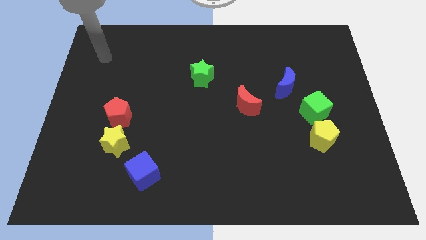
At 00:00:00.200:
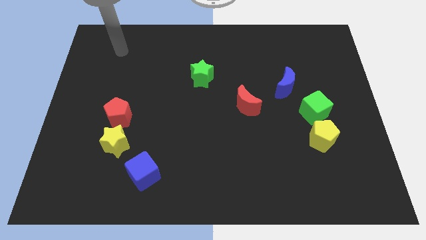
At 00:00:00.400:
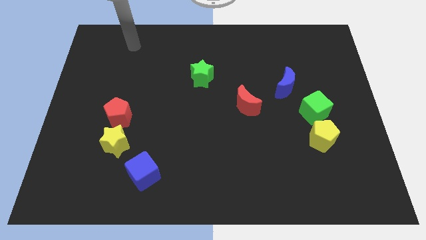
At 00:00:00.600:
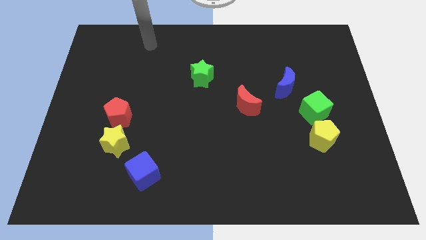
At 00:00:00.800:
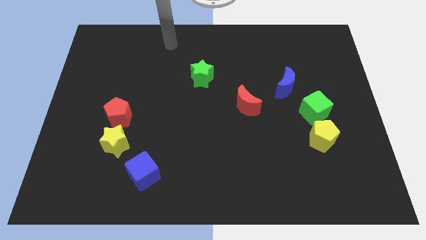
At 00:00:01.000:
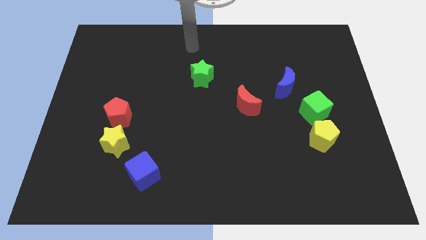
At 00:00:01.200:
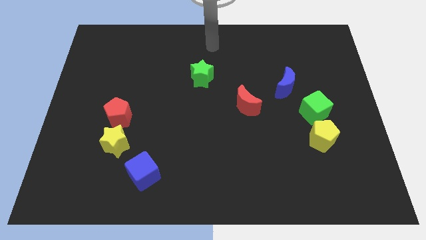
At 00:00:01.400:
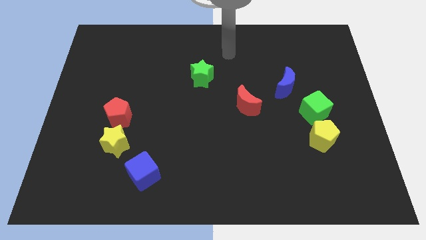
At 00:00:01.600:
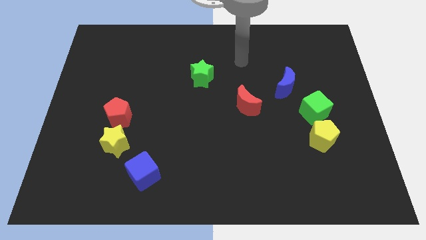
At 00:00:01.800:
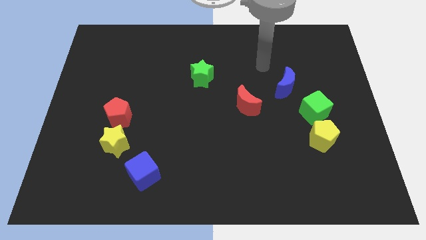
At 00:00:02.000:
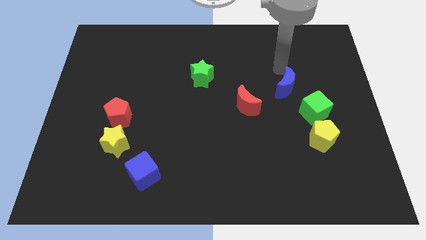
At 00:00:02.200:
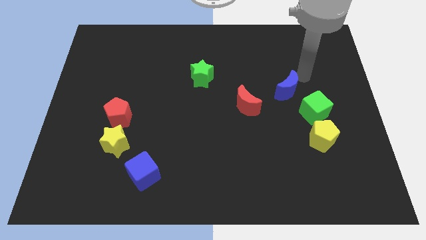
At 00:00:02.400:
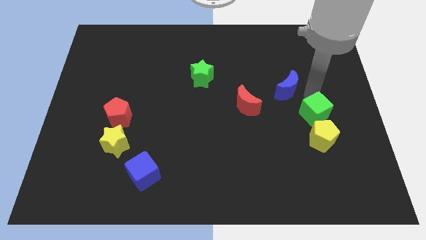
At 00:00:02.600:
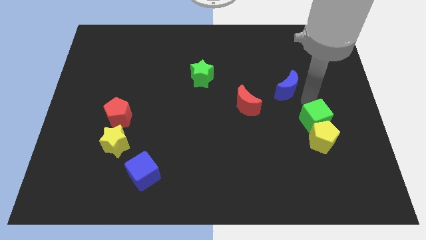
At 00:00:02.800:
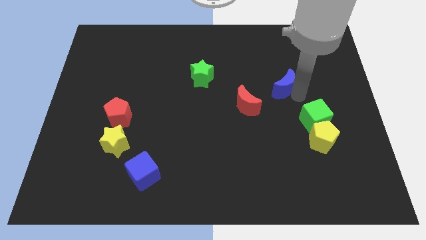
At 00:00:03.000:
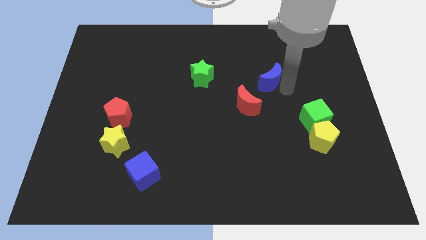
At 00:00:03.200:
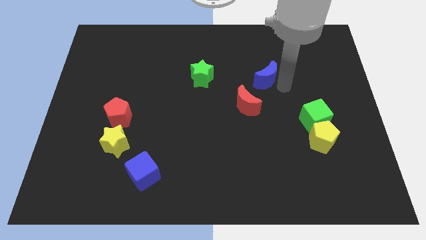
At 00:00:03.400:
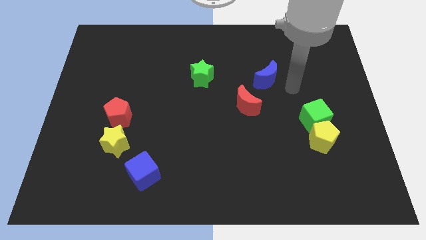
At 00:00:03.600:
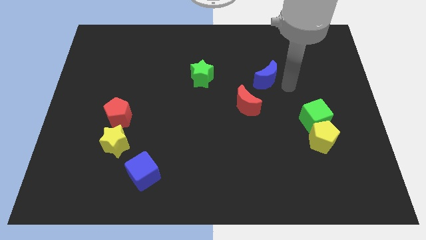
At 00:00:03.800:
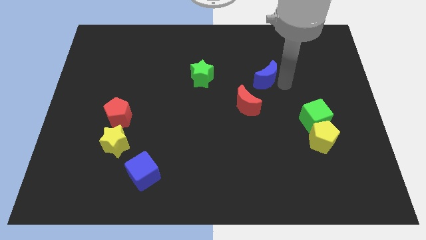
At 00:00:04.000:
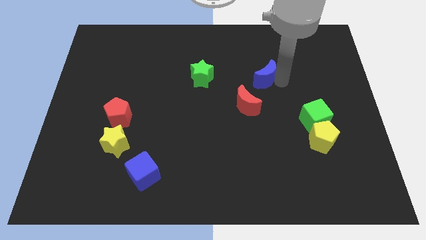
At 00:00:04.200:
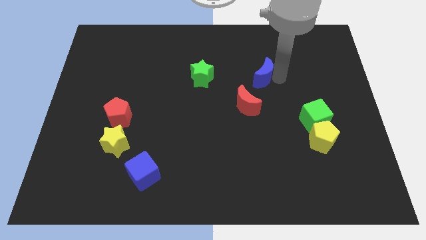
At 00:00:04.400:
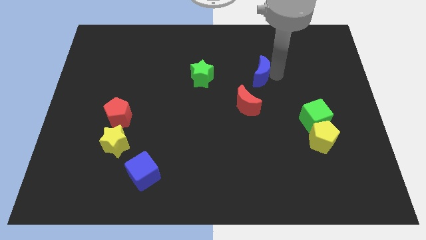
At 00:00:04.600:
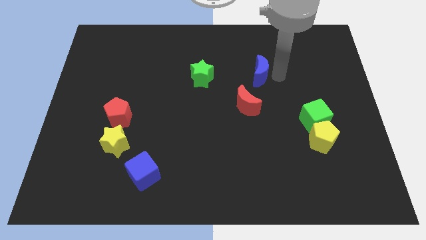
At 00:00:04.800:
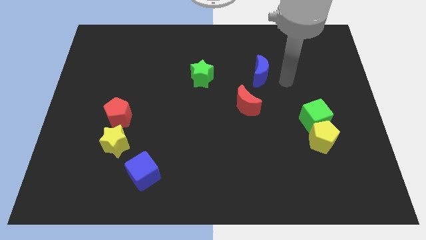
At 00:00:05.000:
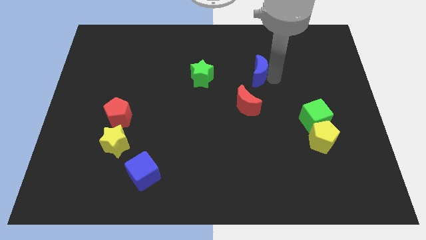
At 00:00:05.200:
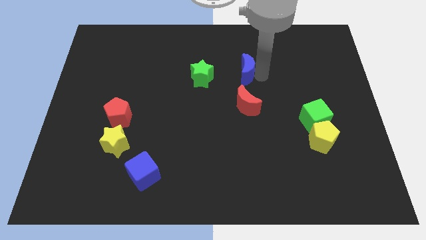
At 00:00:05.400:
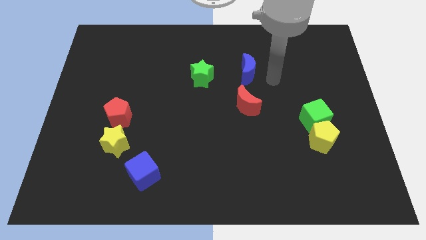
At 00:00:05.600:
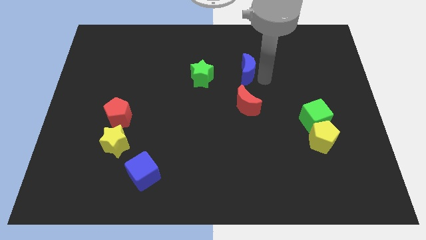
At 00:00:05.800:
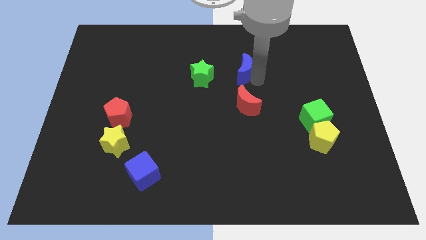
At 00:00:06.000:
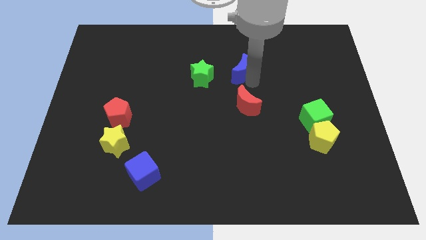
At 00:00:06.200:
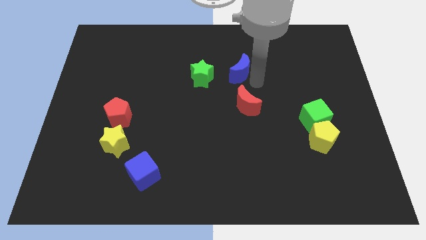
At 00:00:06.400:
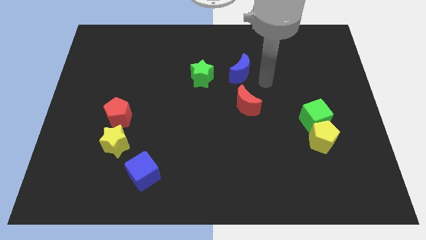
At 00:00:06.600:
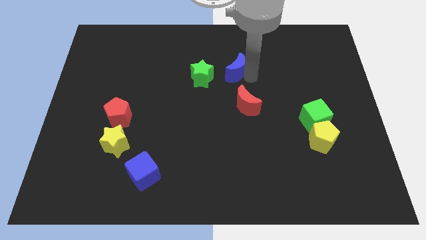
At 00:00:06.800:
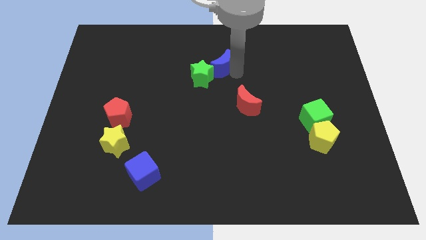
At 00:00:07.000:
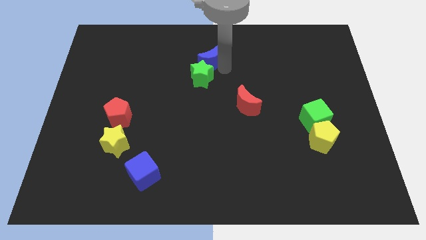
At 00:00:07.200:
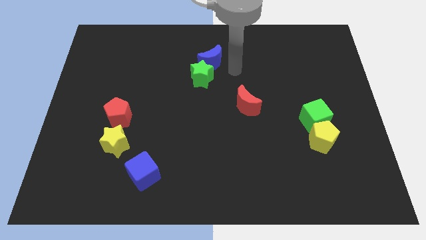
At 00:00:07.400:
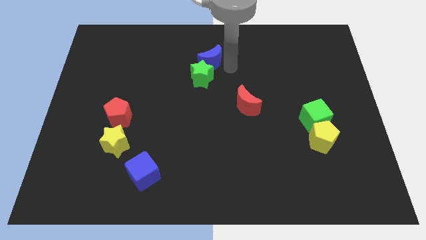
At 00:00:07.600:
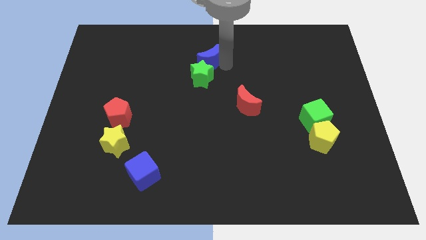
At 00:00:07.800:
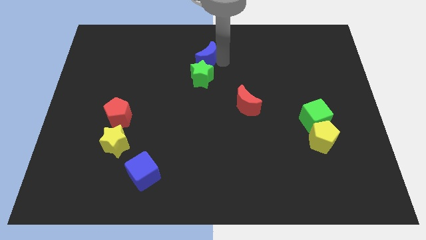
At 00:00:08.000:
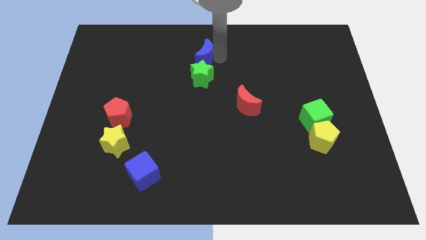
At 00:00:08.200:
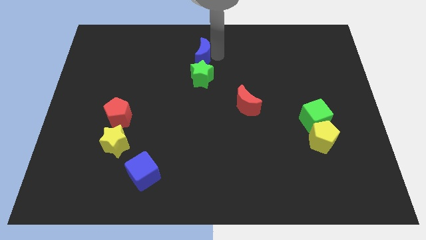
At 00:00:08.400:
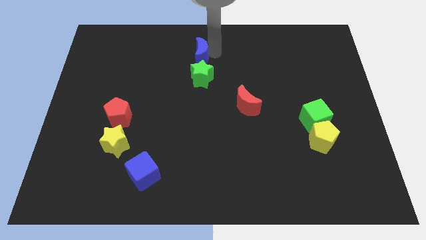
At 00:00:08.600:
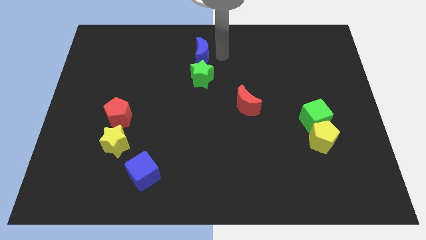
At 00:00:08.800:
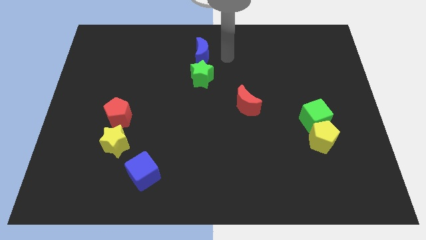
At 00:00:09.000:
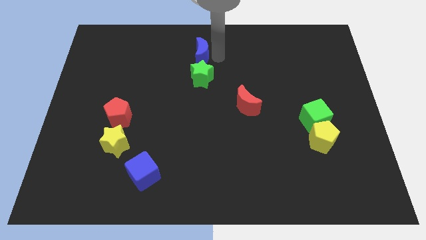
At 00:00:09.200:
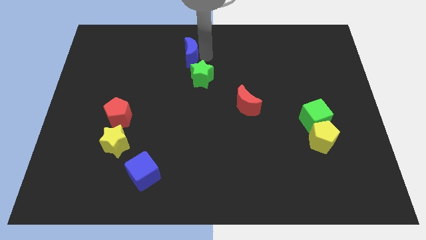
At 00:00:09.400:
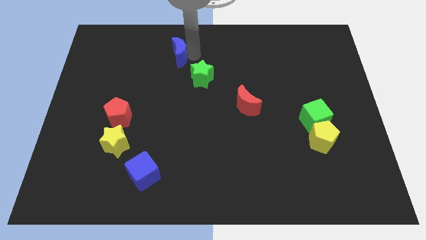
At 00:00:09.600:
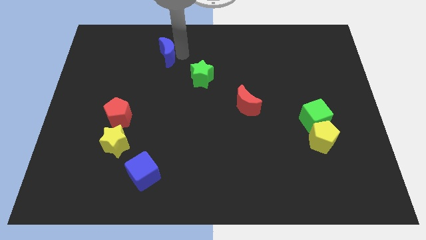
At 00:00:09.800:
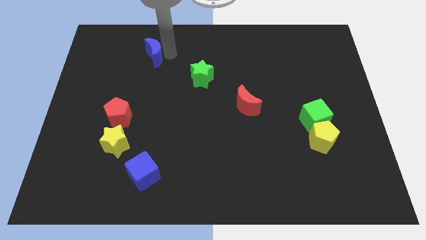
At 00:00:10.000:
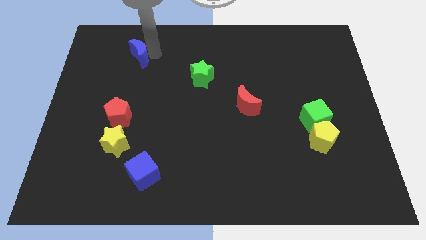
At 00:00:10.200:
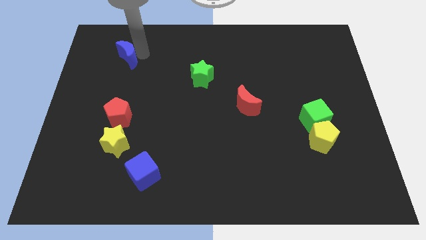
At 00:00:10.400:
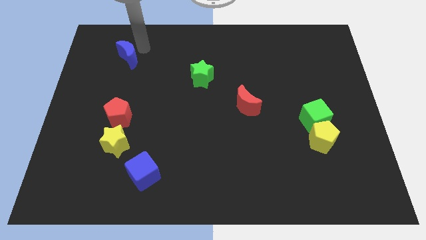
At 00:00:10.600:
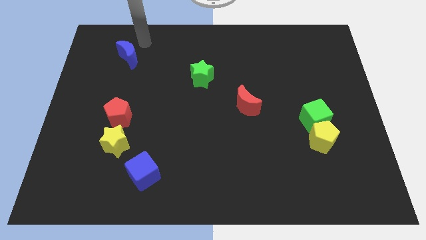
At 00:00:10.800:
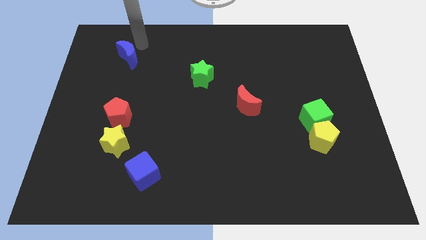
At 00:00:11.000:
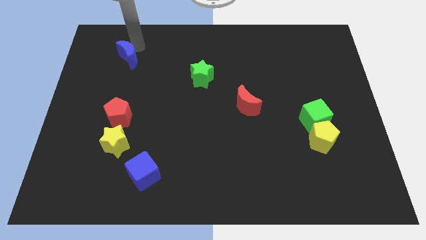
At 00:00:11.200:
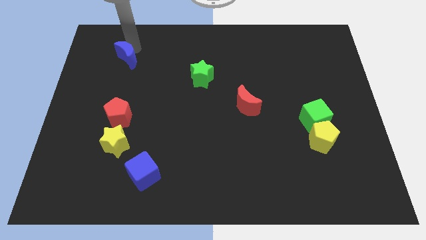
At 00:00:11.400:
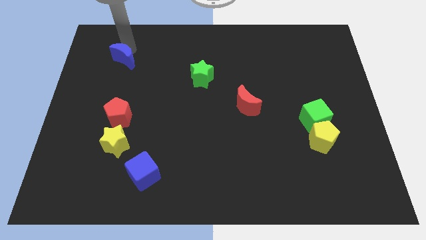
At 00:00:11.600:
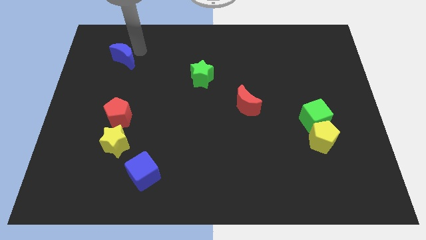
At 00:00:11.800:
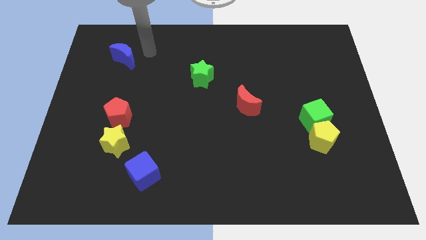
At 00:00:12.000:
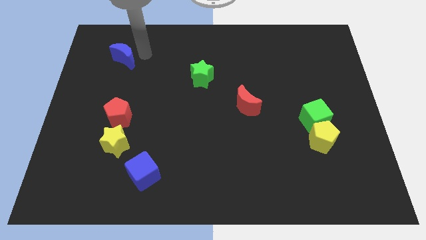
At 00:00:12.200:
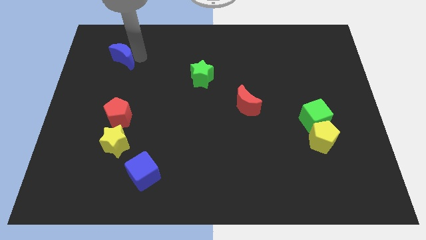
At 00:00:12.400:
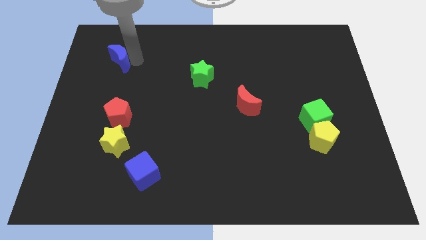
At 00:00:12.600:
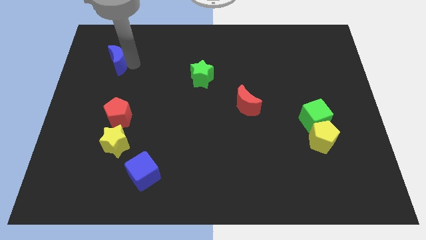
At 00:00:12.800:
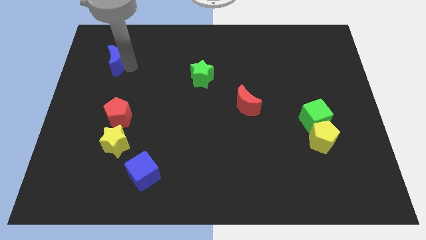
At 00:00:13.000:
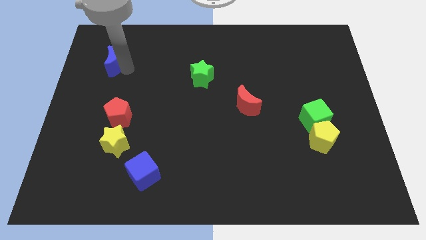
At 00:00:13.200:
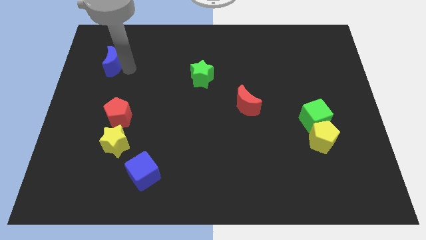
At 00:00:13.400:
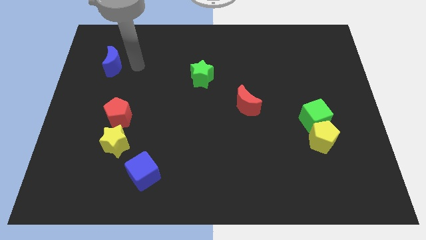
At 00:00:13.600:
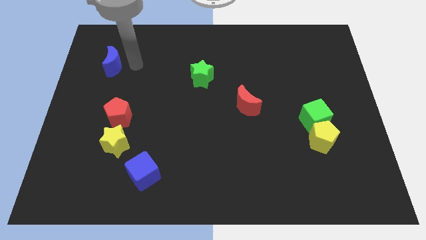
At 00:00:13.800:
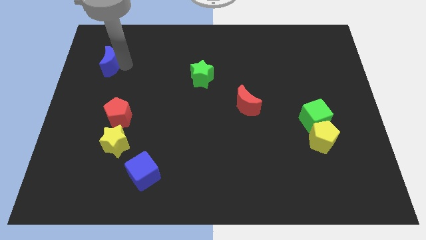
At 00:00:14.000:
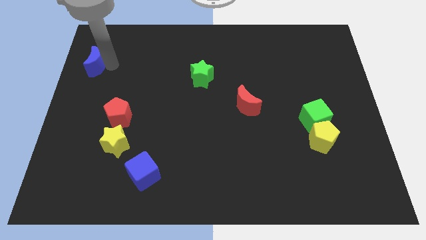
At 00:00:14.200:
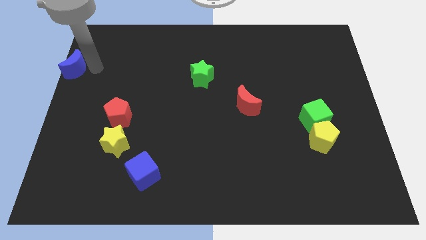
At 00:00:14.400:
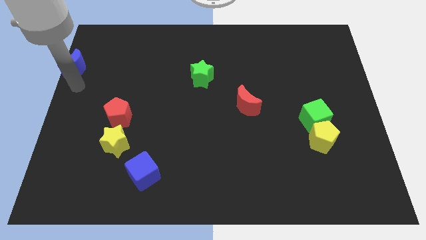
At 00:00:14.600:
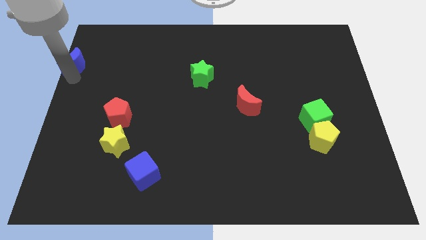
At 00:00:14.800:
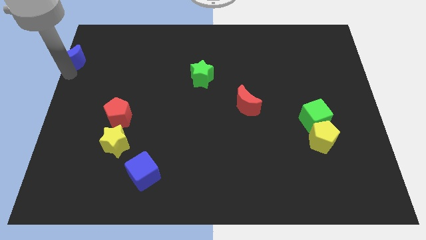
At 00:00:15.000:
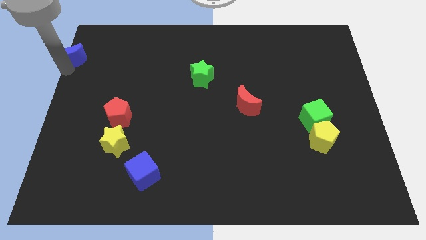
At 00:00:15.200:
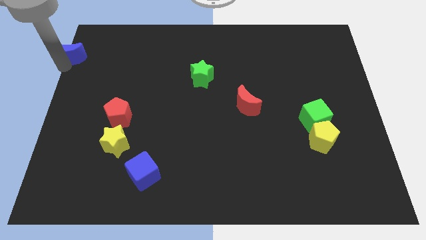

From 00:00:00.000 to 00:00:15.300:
move the blue moon to the top left of the board
